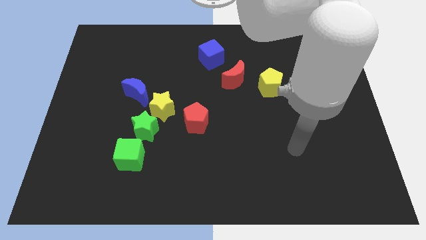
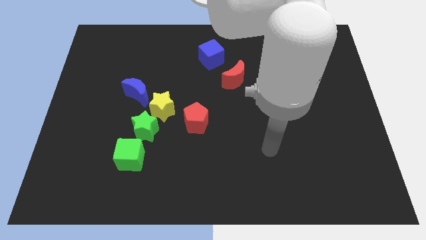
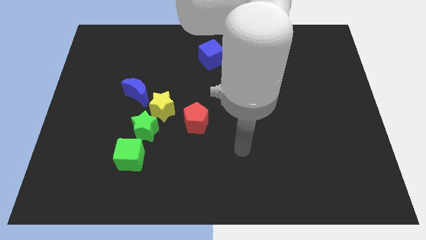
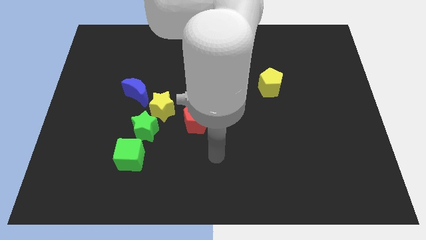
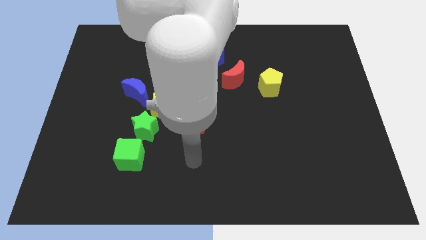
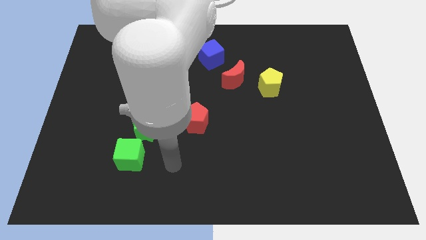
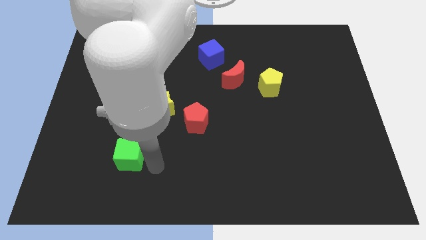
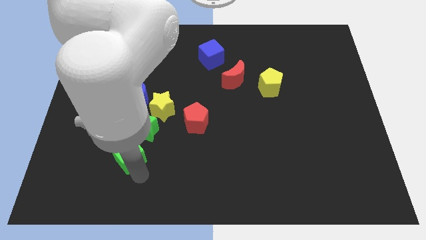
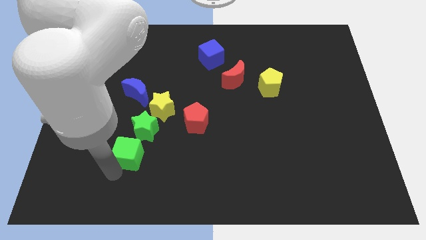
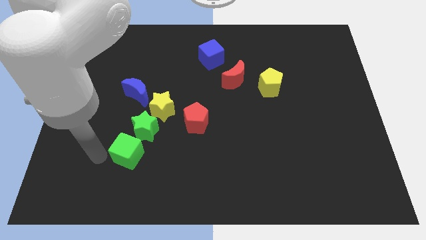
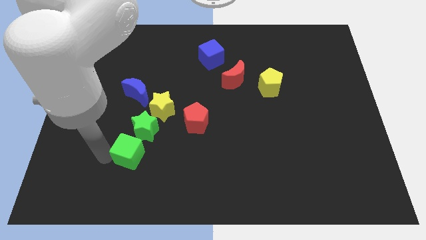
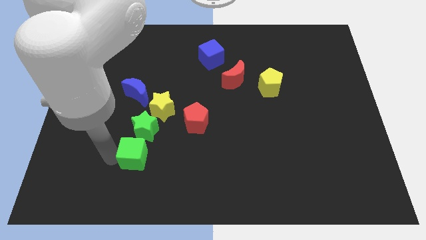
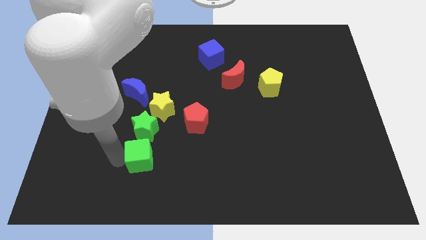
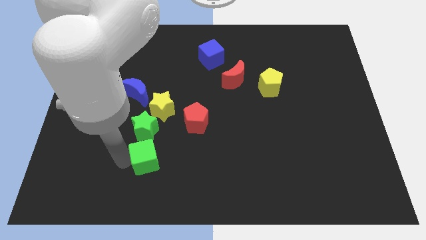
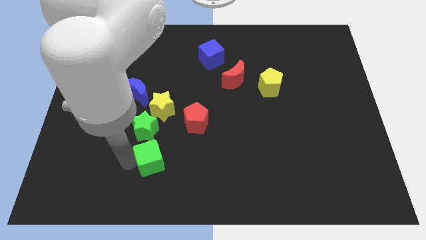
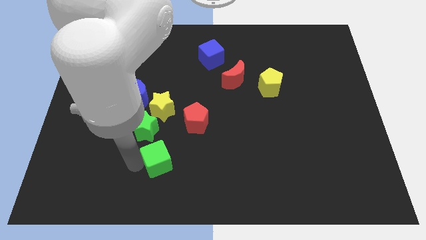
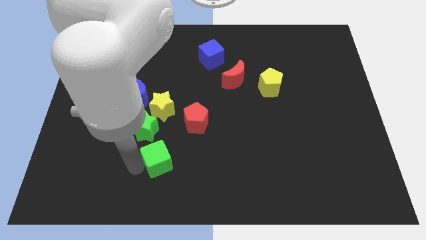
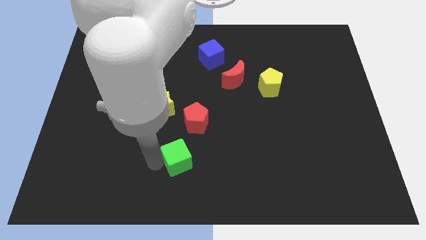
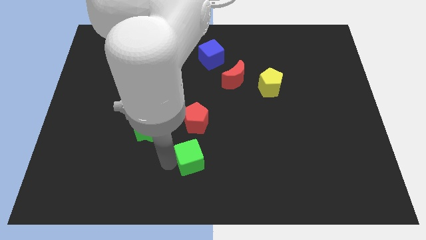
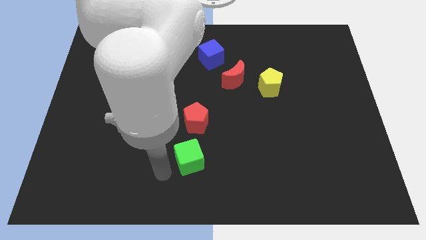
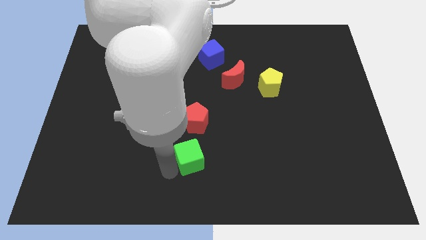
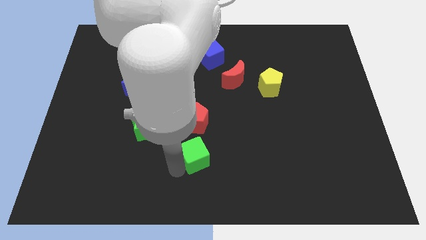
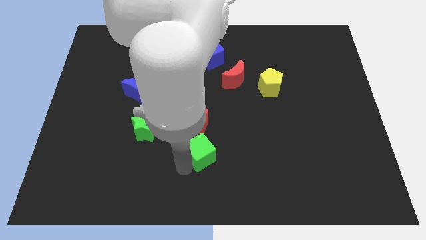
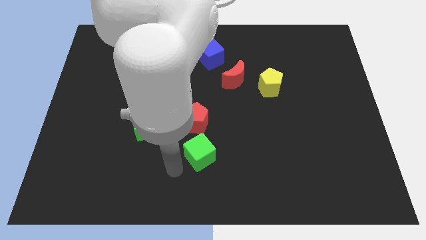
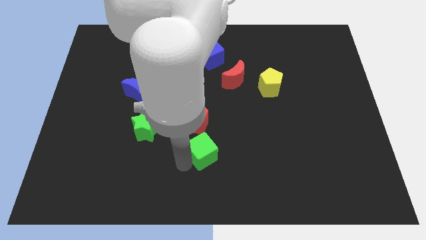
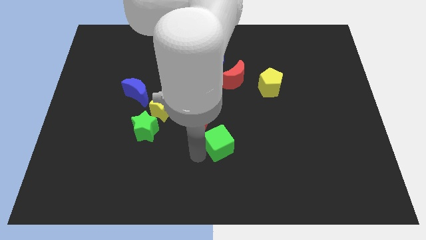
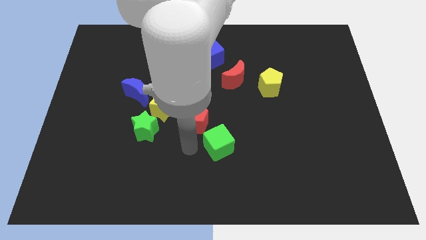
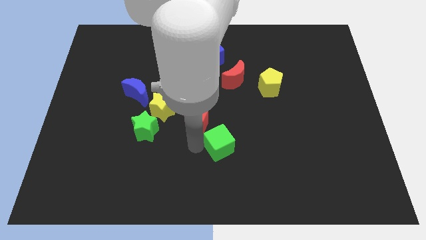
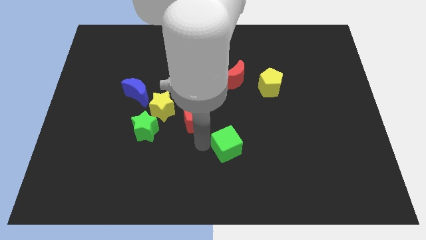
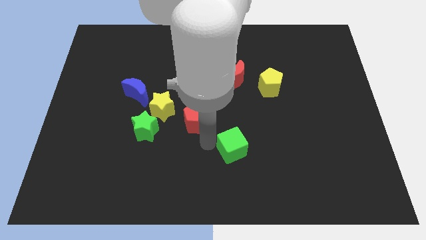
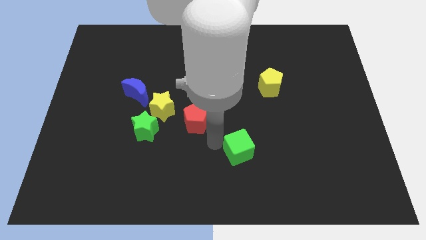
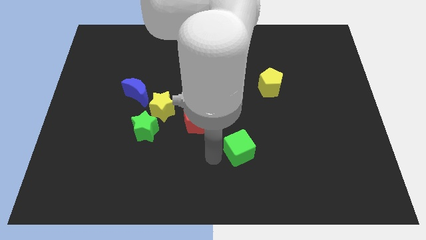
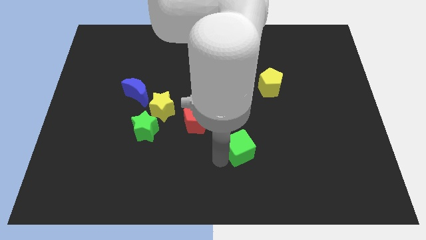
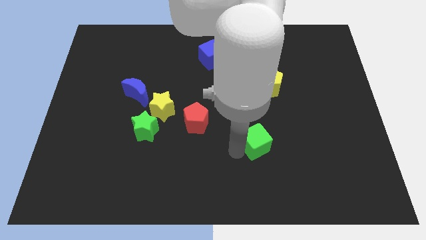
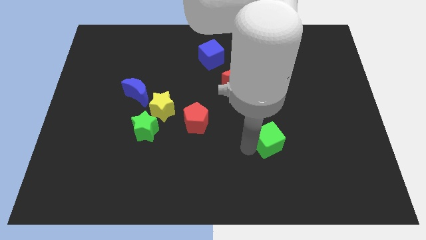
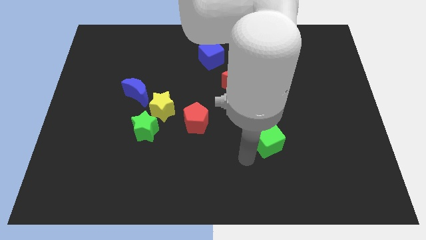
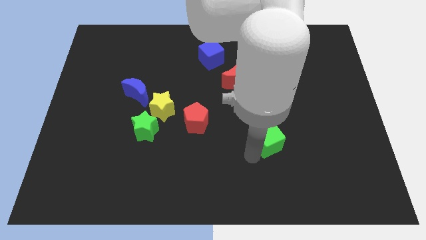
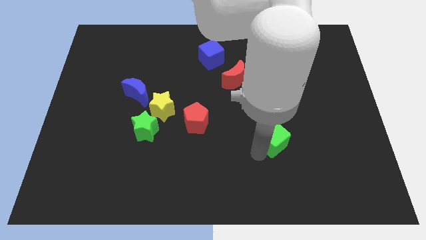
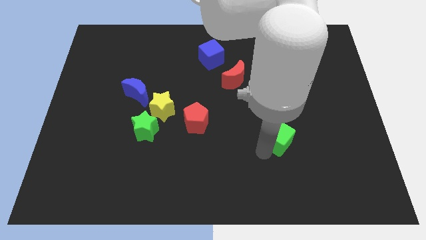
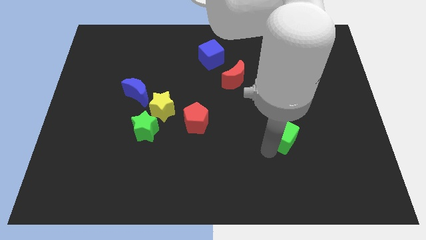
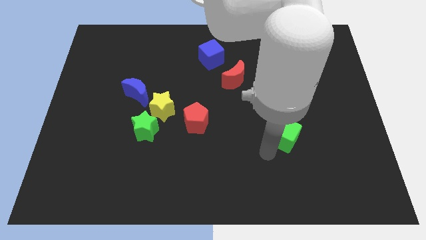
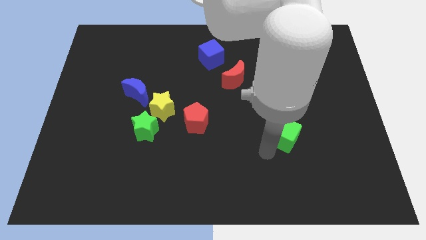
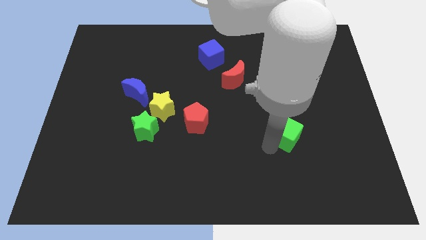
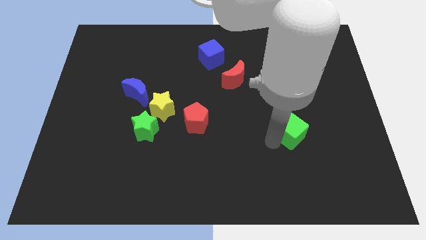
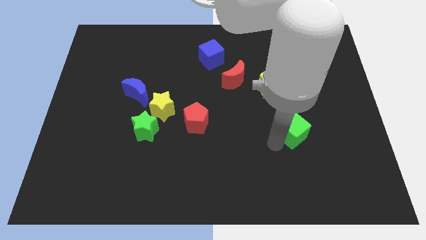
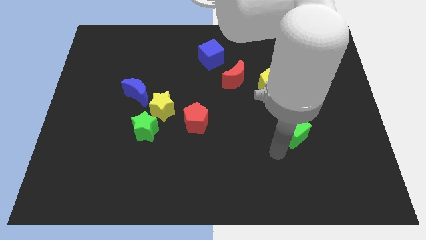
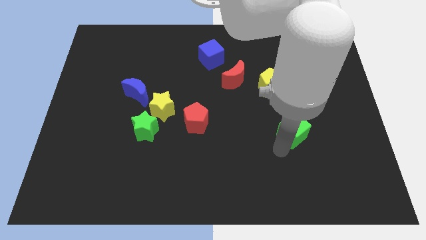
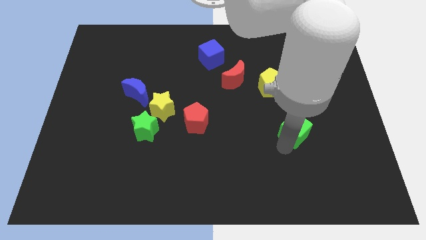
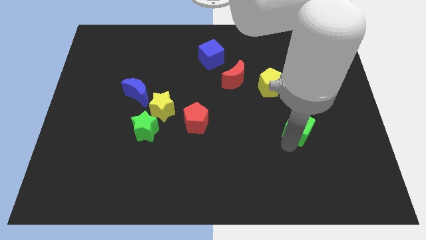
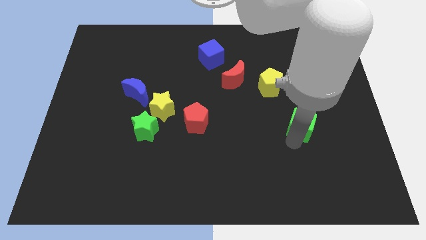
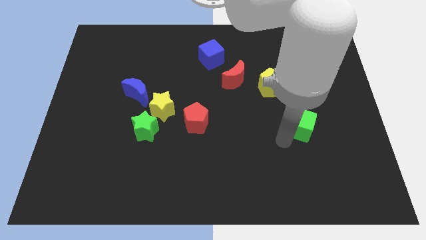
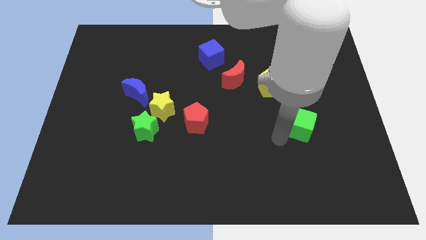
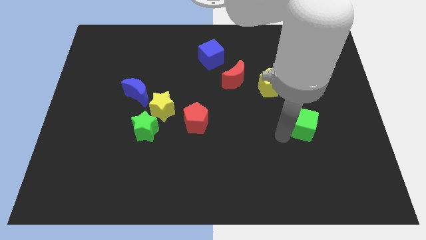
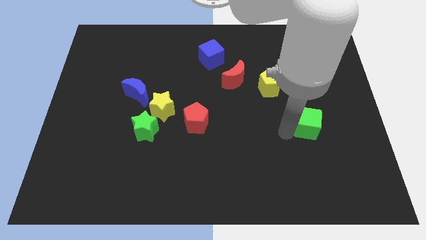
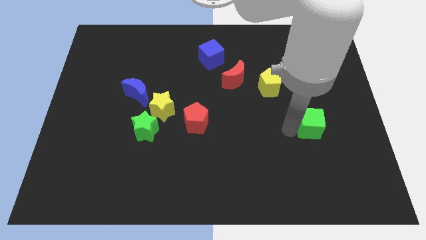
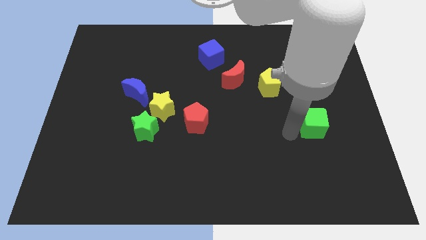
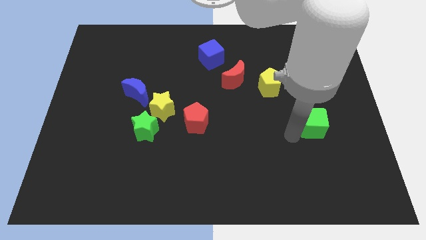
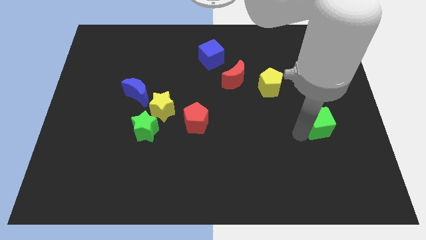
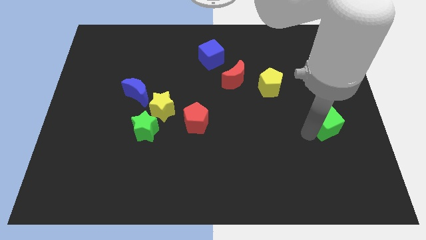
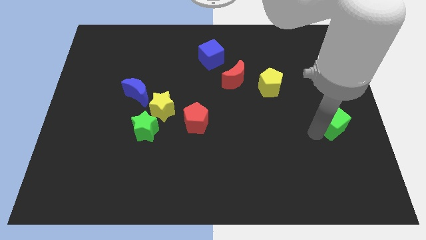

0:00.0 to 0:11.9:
move the green cube to the right side of the board

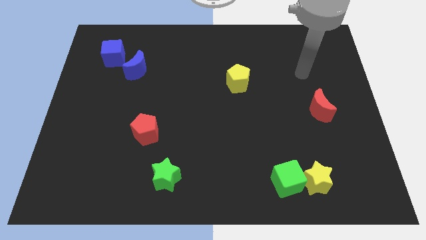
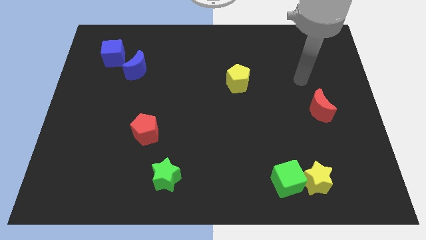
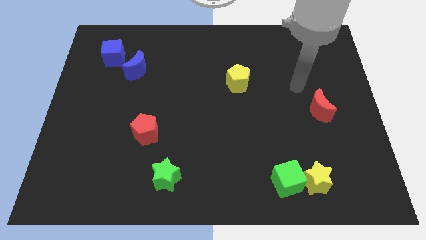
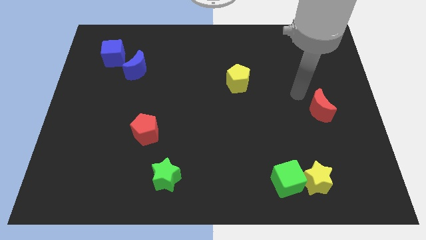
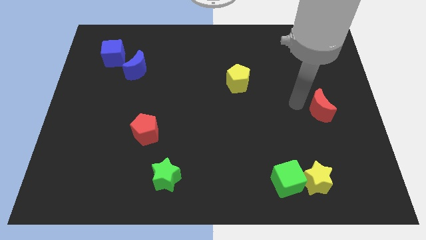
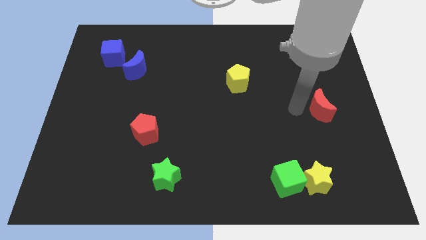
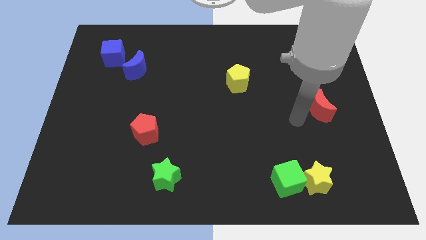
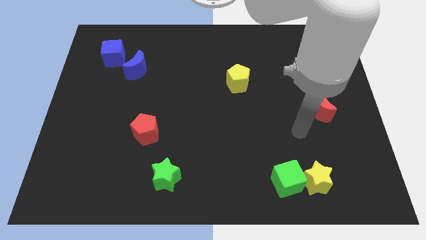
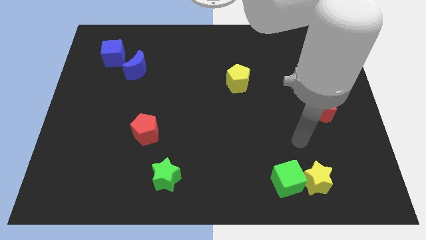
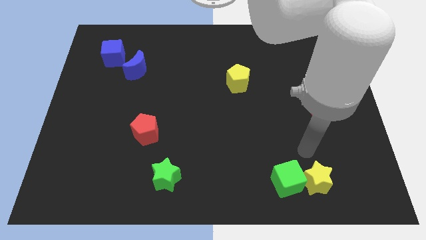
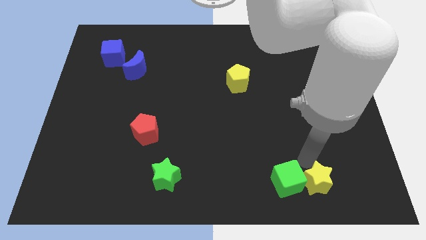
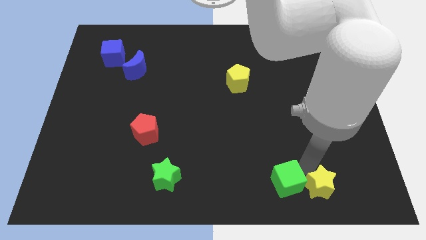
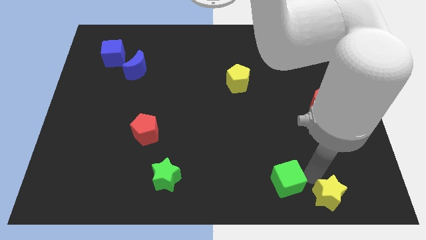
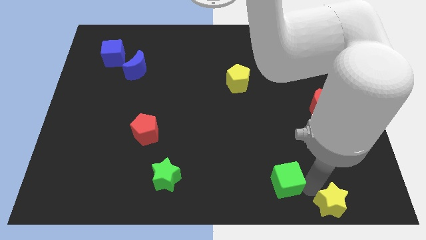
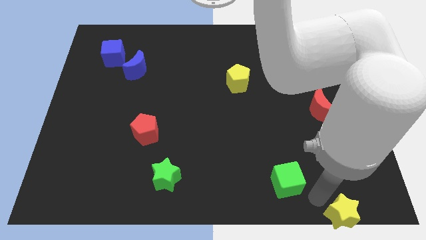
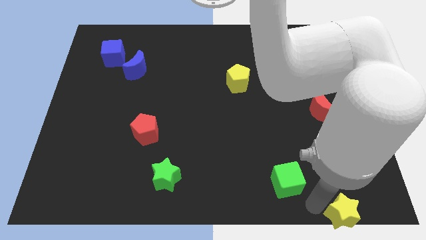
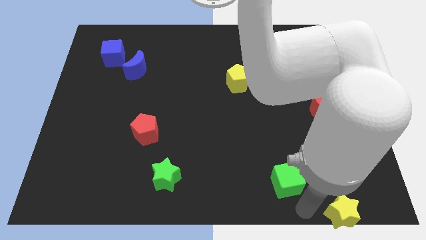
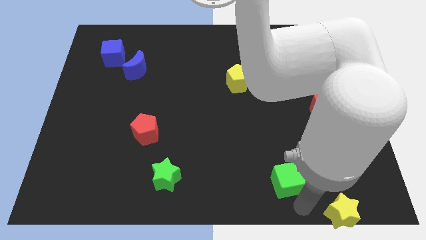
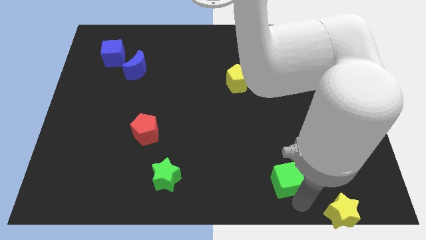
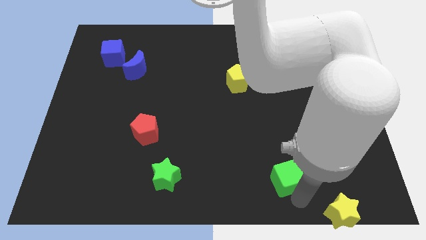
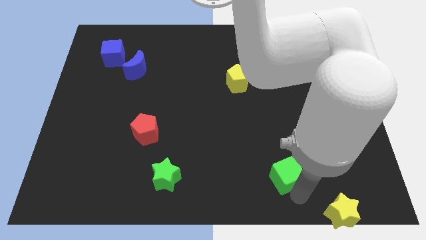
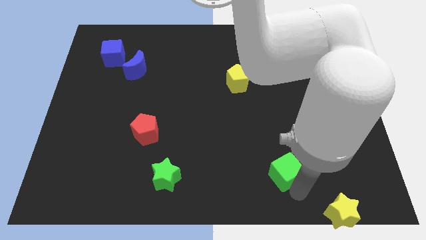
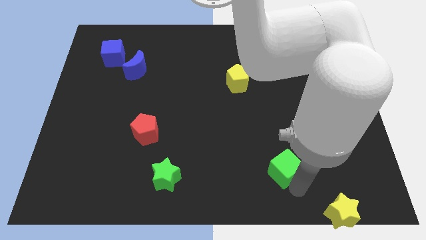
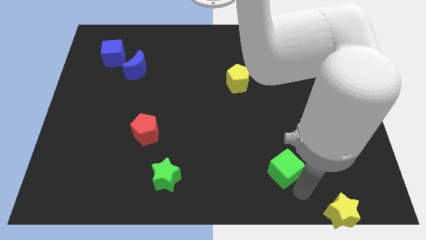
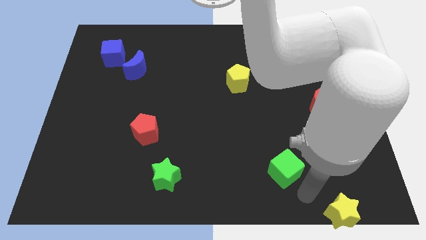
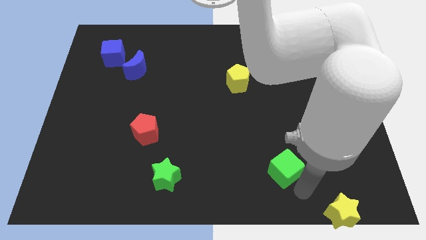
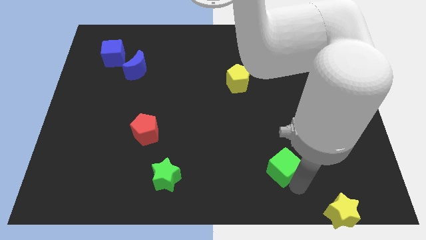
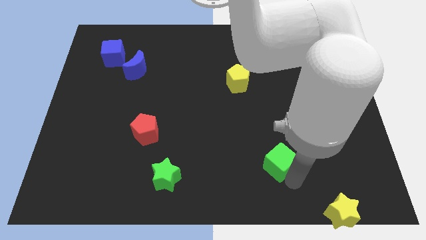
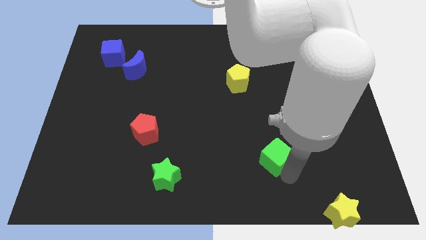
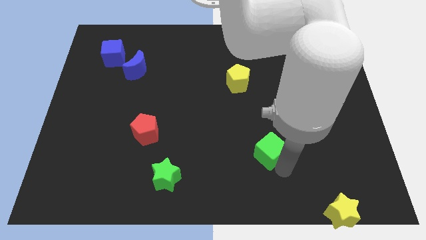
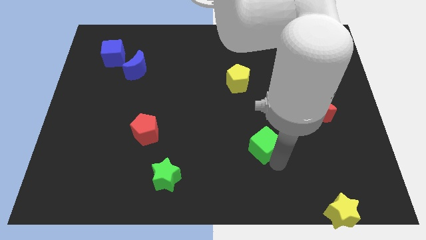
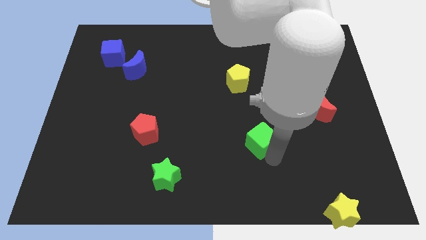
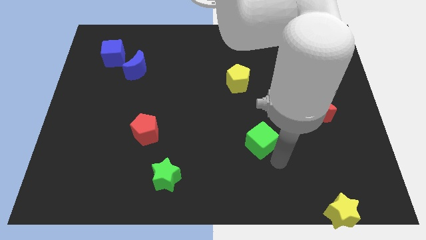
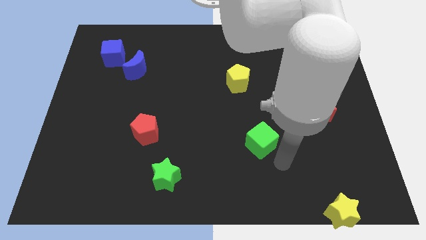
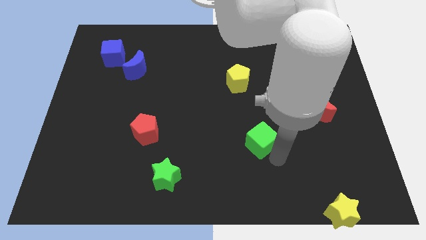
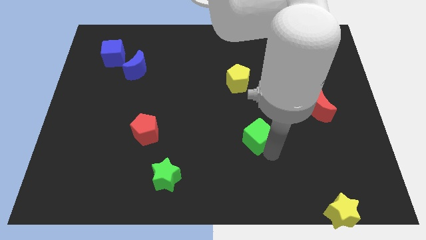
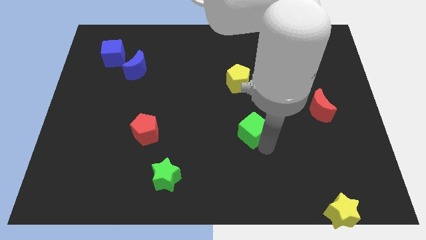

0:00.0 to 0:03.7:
put the green cube to the middle
